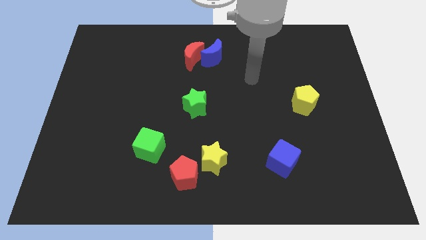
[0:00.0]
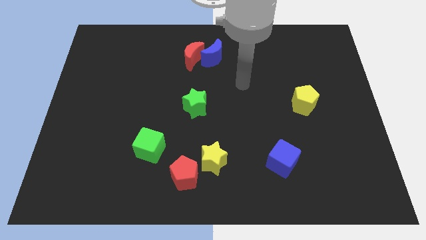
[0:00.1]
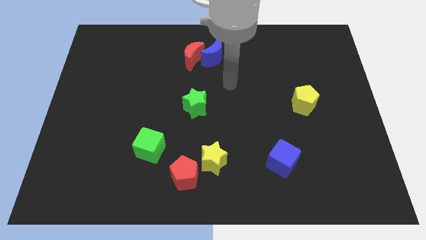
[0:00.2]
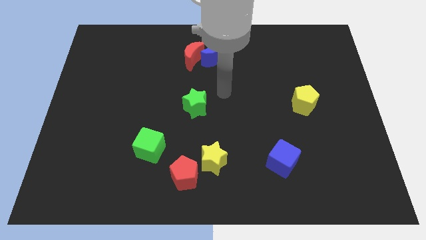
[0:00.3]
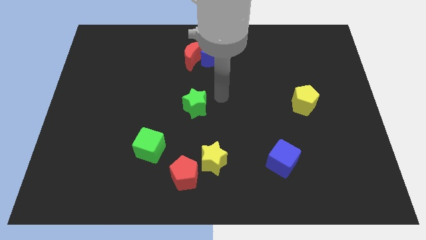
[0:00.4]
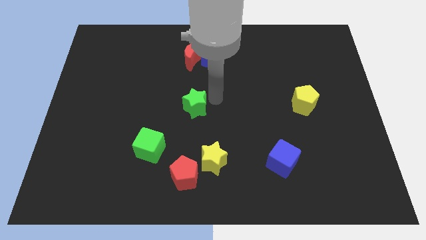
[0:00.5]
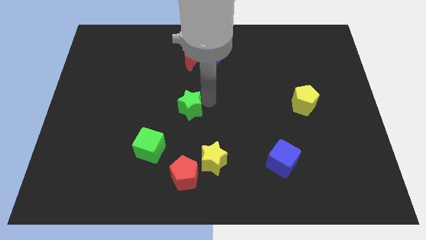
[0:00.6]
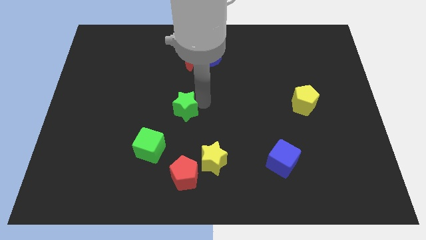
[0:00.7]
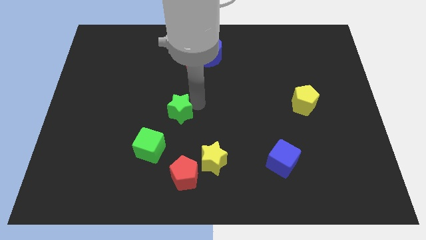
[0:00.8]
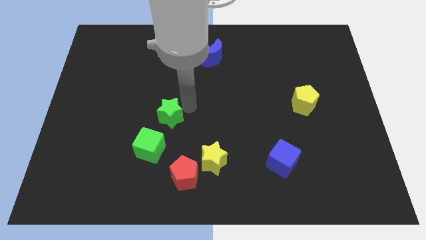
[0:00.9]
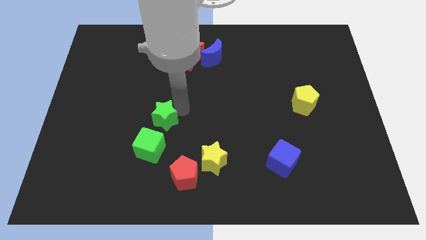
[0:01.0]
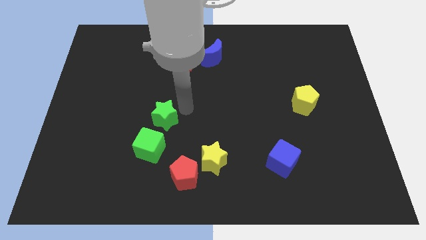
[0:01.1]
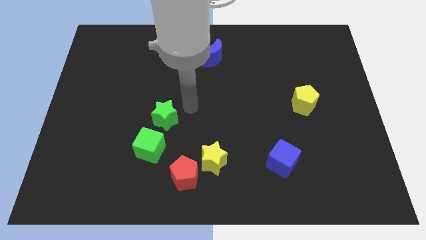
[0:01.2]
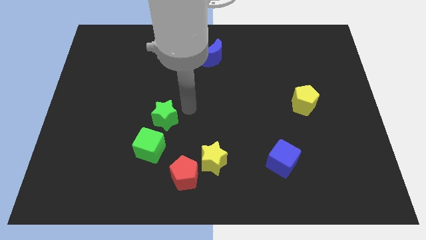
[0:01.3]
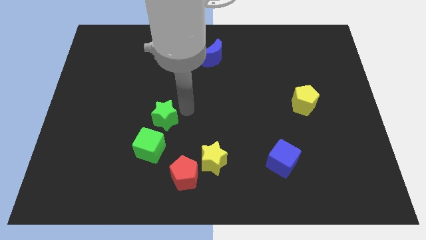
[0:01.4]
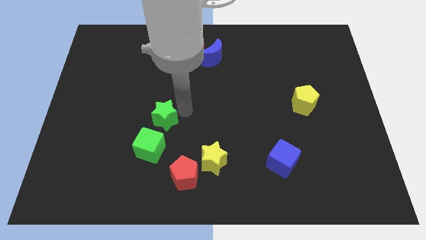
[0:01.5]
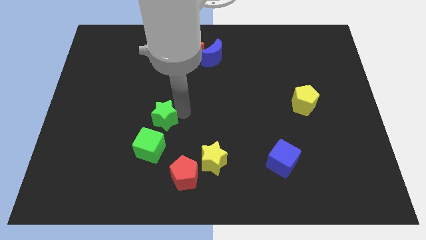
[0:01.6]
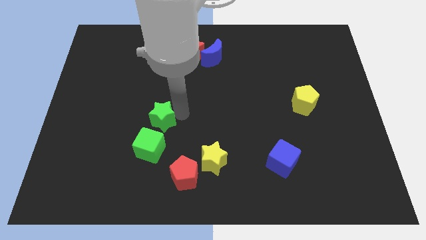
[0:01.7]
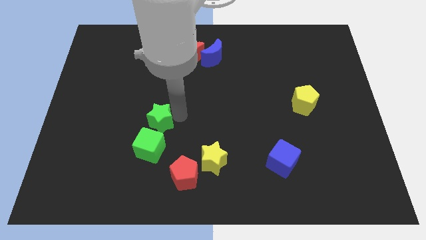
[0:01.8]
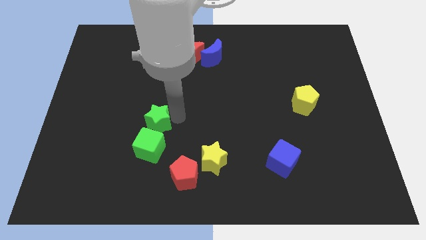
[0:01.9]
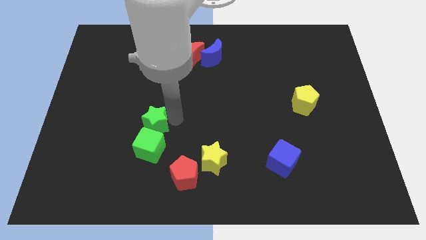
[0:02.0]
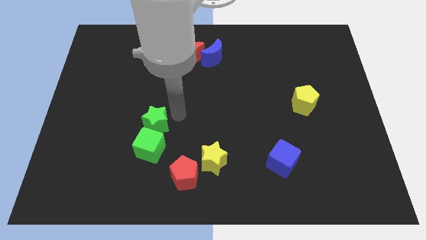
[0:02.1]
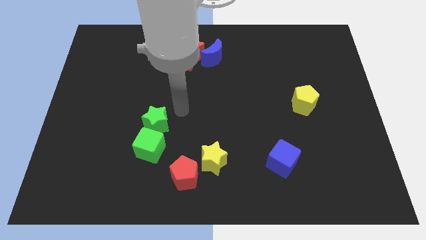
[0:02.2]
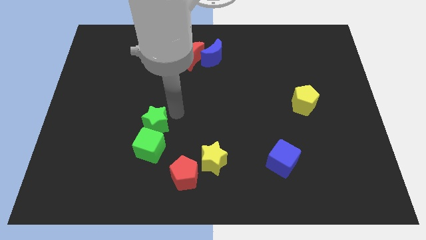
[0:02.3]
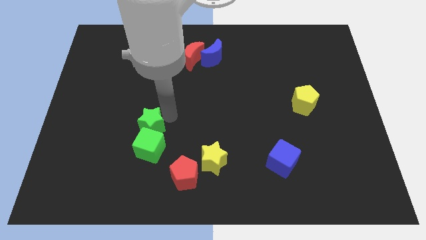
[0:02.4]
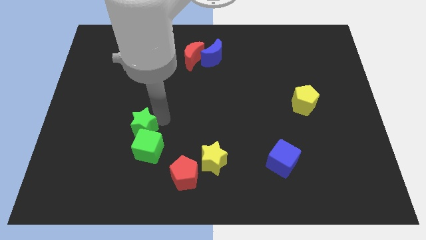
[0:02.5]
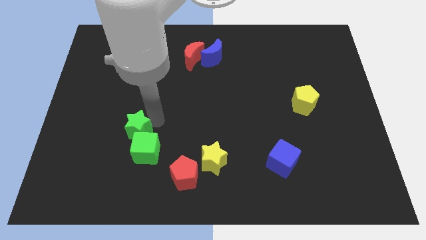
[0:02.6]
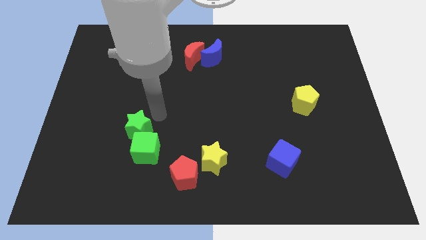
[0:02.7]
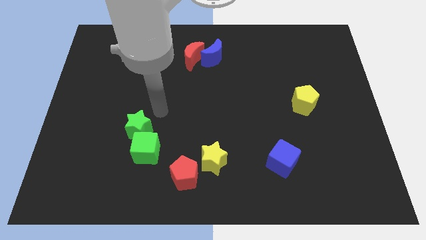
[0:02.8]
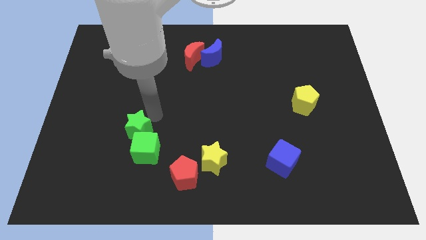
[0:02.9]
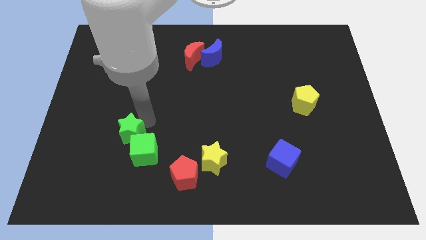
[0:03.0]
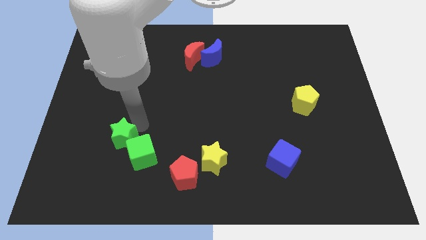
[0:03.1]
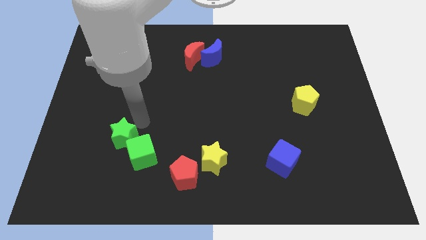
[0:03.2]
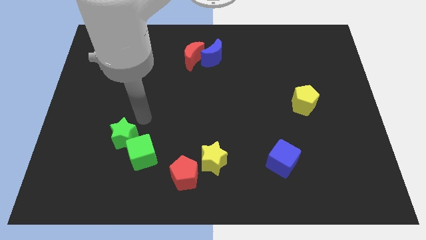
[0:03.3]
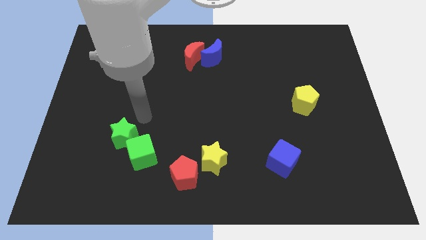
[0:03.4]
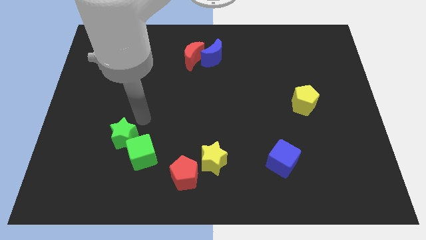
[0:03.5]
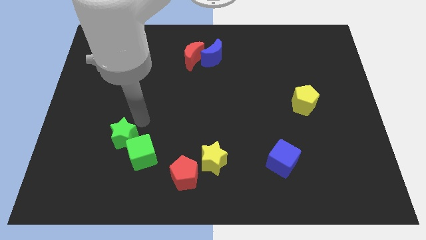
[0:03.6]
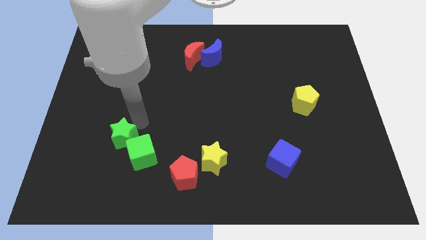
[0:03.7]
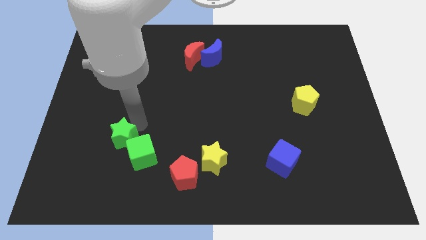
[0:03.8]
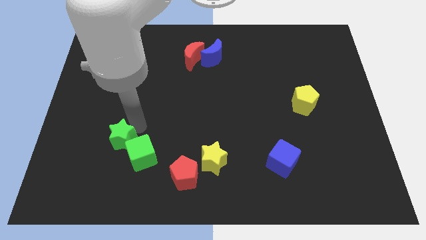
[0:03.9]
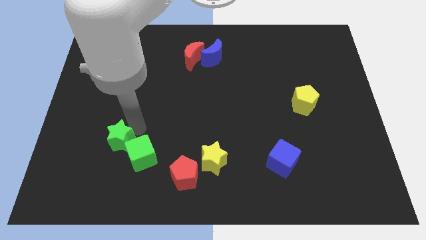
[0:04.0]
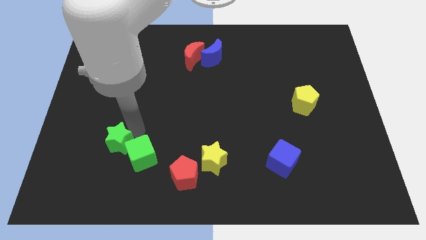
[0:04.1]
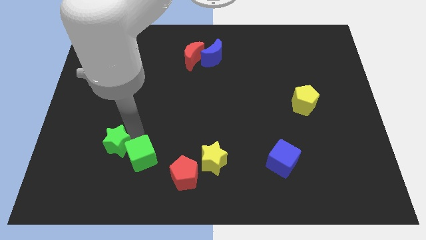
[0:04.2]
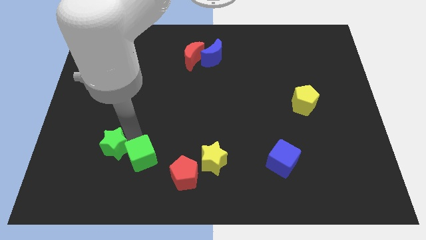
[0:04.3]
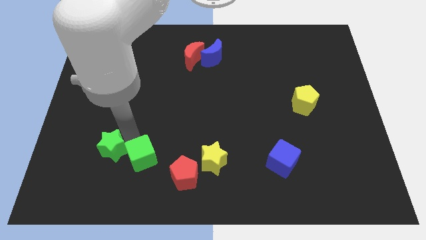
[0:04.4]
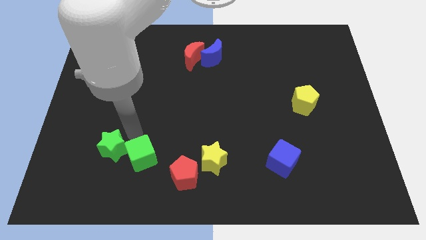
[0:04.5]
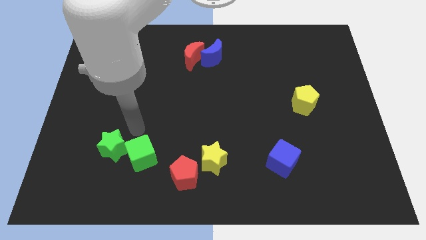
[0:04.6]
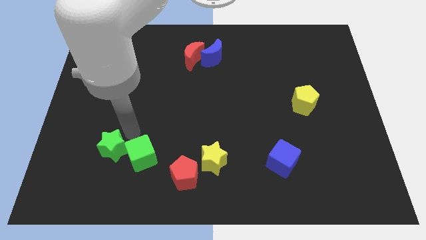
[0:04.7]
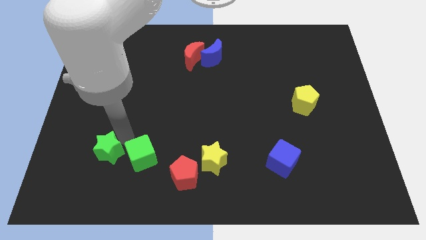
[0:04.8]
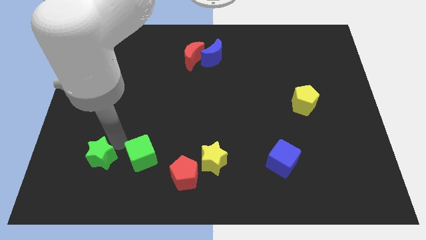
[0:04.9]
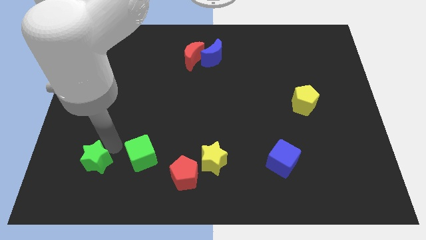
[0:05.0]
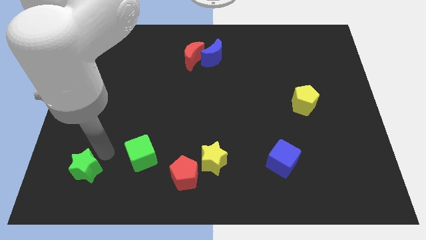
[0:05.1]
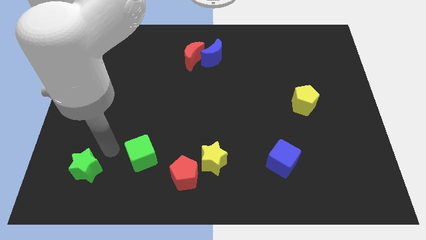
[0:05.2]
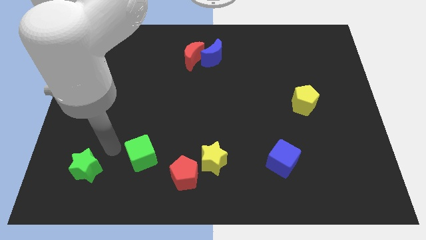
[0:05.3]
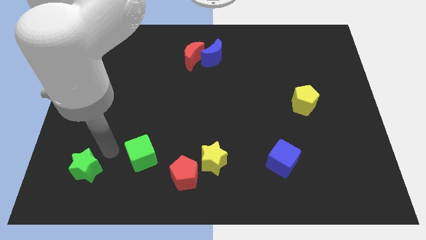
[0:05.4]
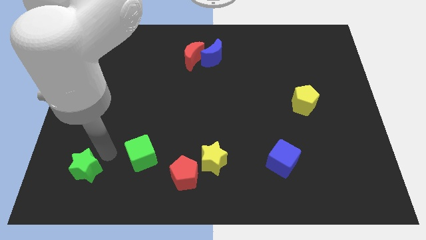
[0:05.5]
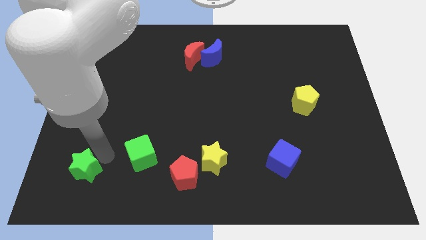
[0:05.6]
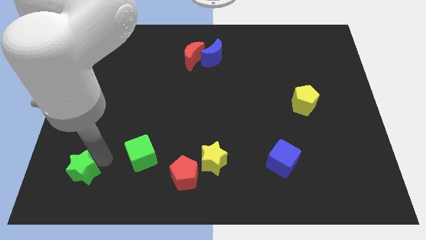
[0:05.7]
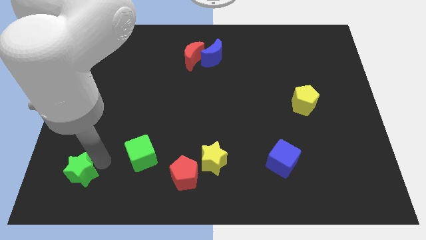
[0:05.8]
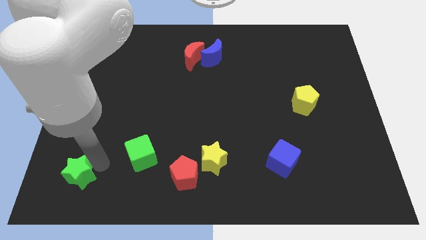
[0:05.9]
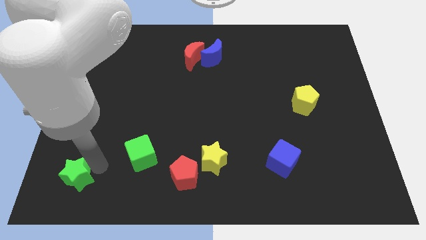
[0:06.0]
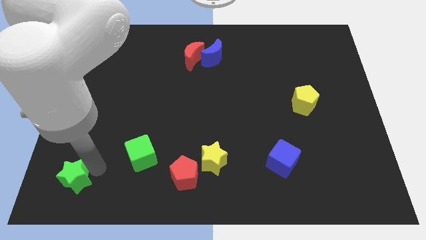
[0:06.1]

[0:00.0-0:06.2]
move the green star to the lower left corner

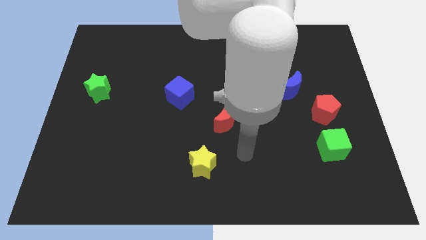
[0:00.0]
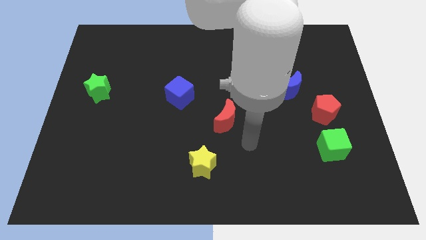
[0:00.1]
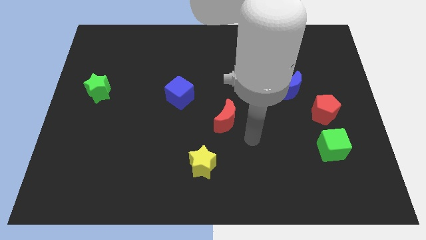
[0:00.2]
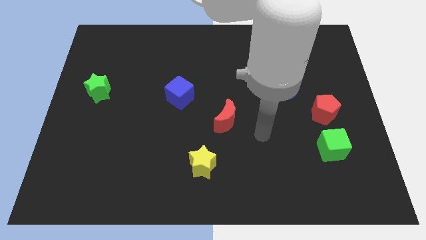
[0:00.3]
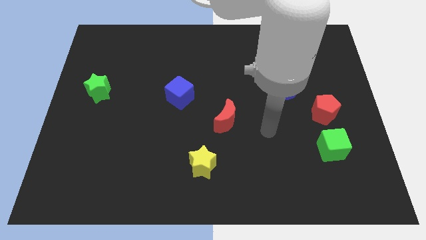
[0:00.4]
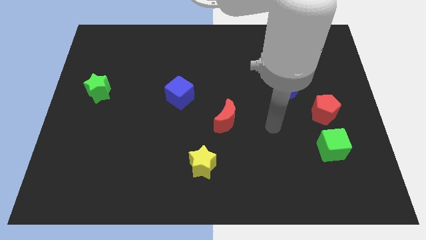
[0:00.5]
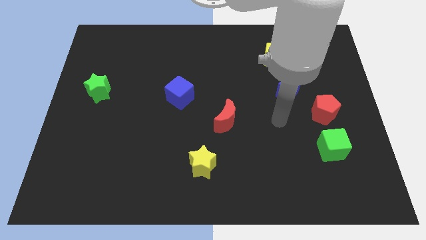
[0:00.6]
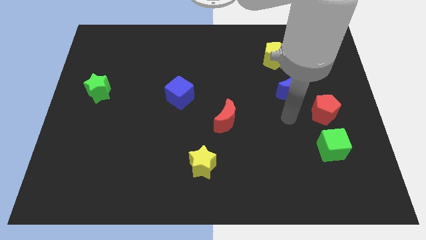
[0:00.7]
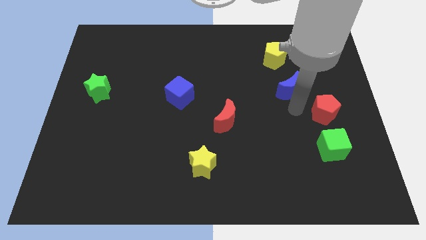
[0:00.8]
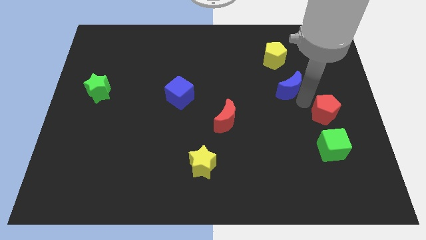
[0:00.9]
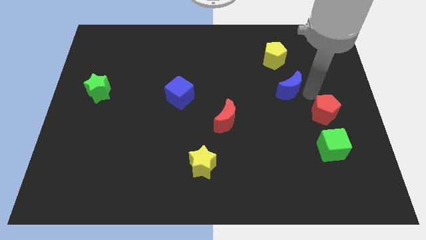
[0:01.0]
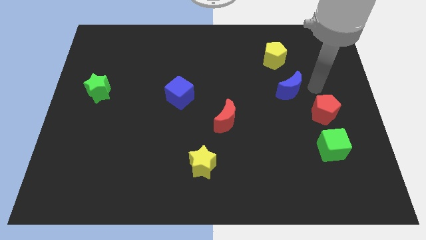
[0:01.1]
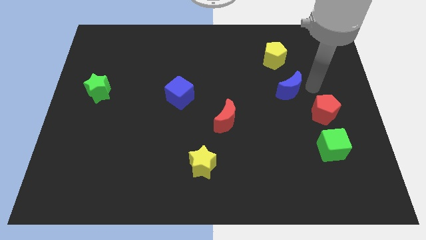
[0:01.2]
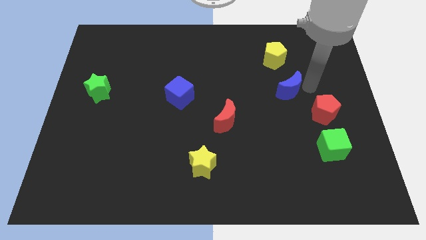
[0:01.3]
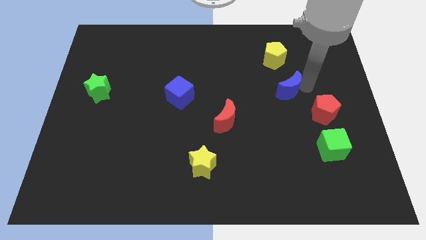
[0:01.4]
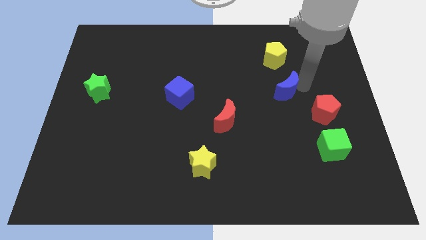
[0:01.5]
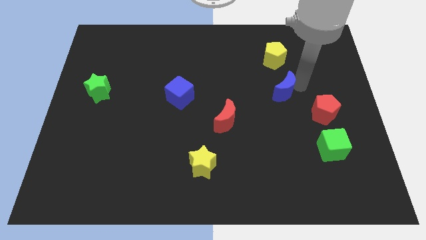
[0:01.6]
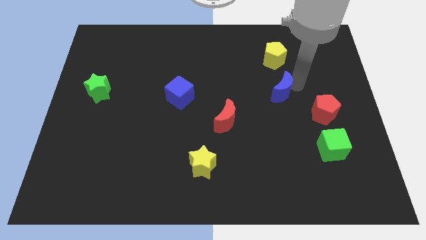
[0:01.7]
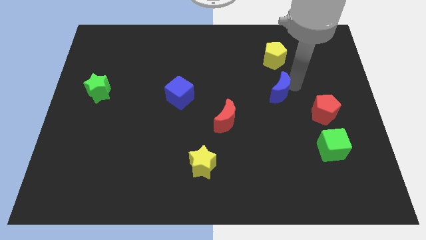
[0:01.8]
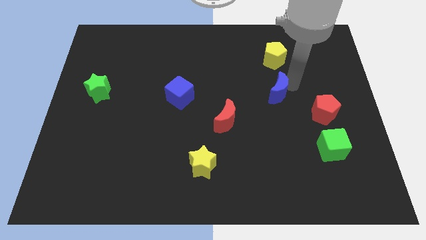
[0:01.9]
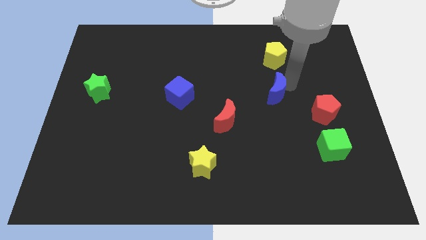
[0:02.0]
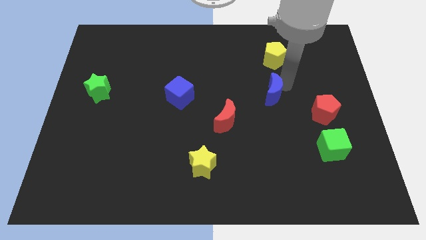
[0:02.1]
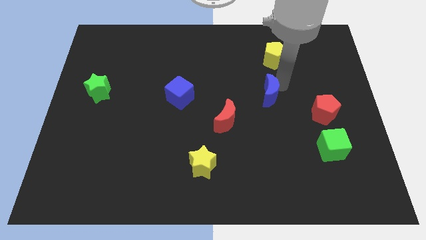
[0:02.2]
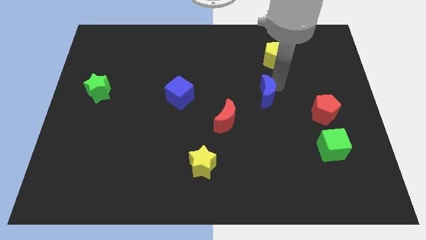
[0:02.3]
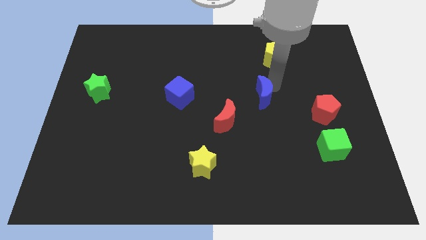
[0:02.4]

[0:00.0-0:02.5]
push the blue moon to the center of the board
